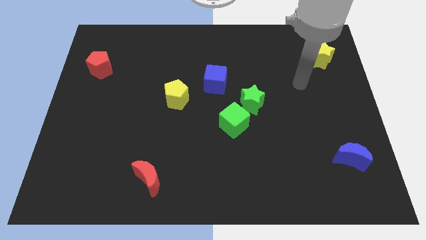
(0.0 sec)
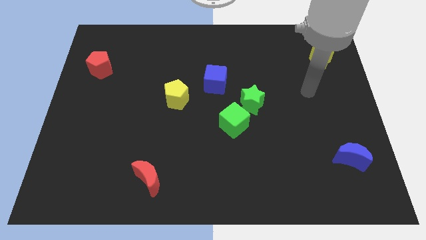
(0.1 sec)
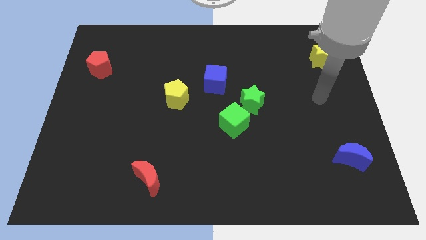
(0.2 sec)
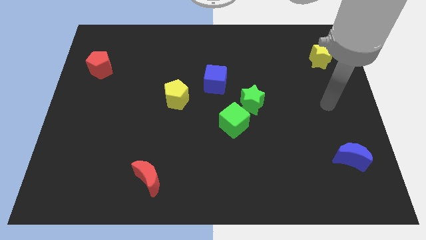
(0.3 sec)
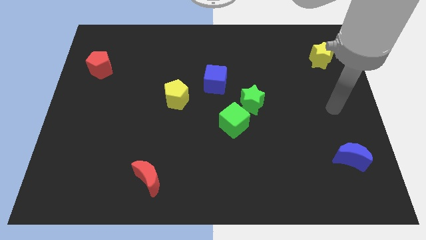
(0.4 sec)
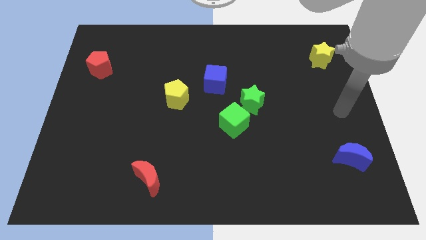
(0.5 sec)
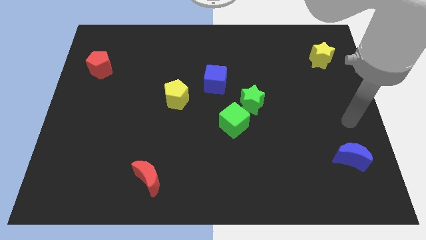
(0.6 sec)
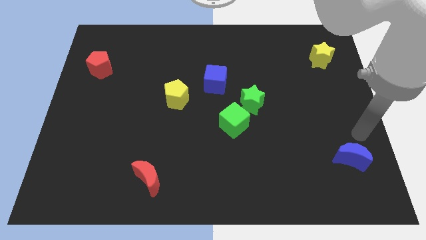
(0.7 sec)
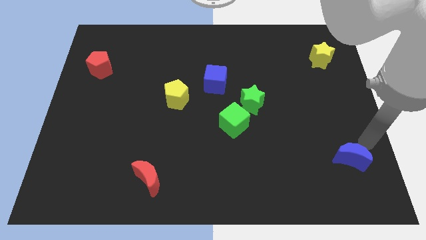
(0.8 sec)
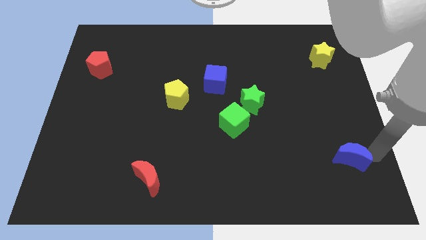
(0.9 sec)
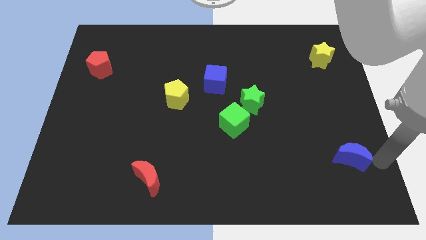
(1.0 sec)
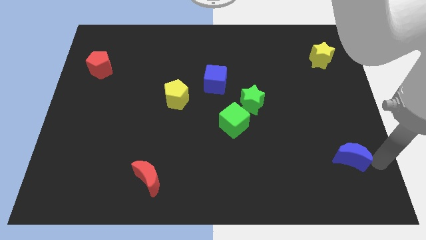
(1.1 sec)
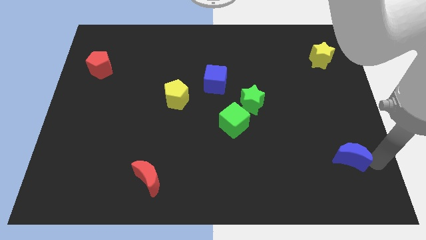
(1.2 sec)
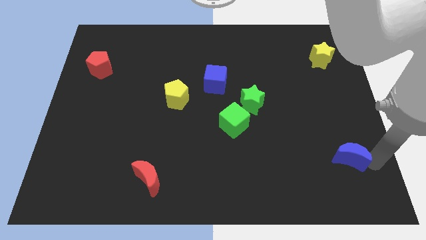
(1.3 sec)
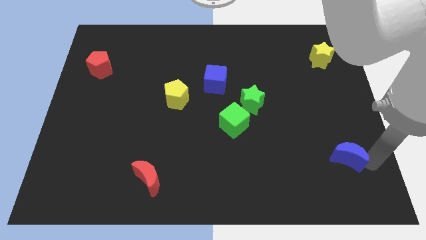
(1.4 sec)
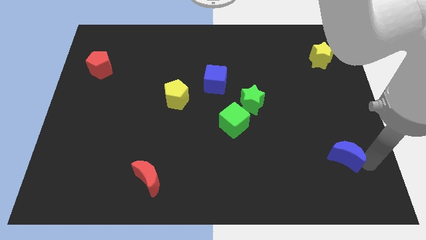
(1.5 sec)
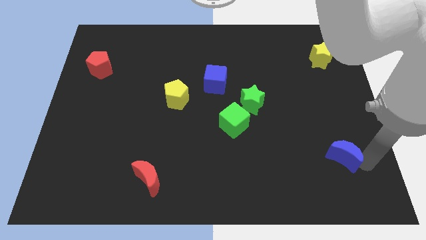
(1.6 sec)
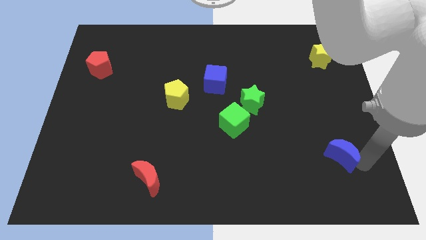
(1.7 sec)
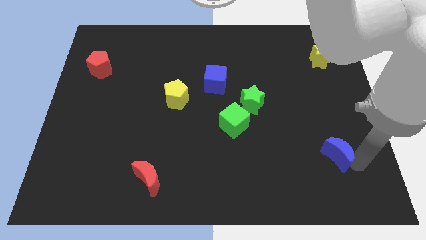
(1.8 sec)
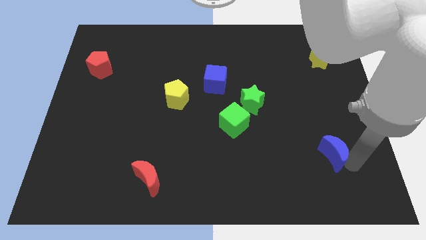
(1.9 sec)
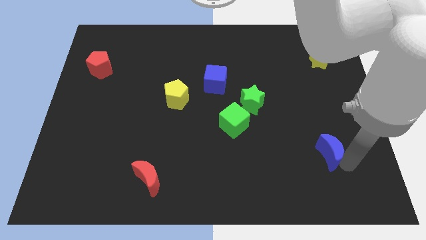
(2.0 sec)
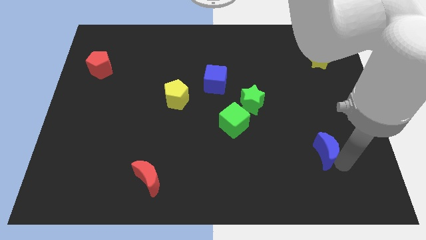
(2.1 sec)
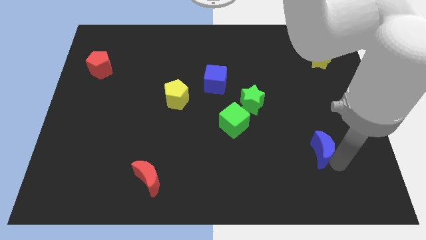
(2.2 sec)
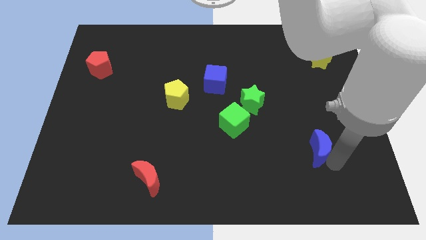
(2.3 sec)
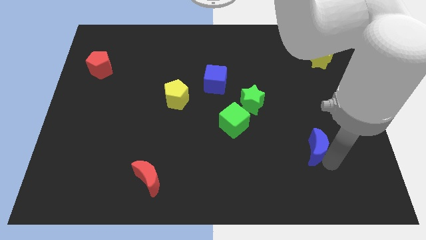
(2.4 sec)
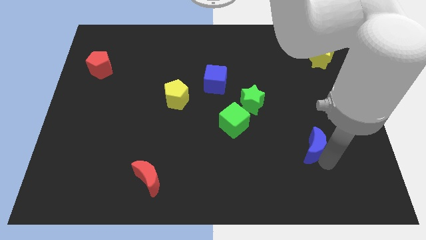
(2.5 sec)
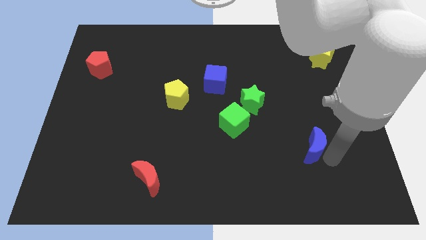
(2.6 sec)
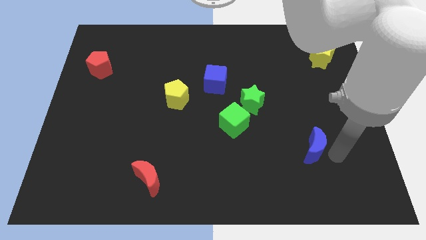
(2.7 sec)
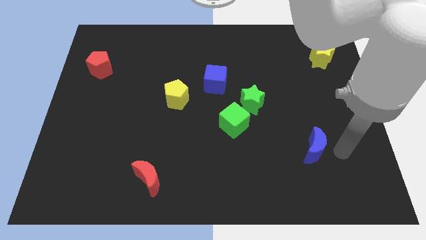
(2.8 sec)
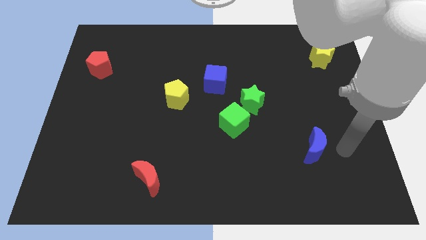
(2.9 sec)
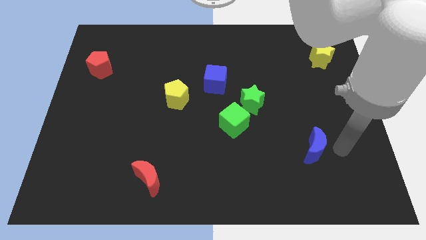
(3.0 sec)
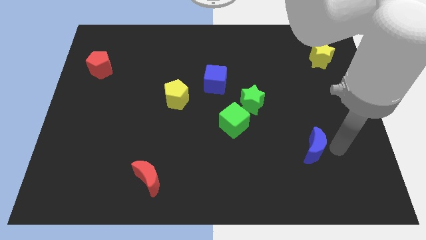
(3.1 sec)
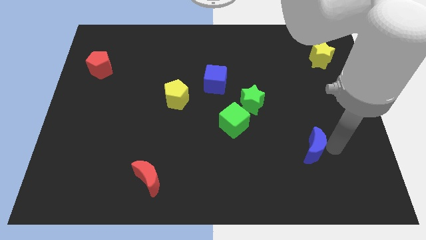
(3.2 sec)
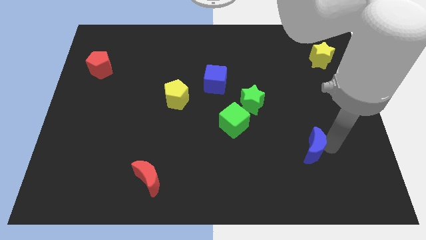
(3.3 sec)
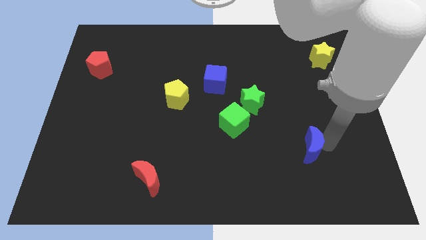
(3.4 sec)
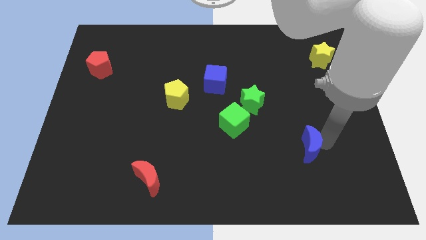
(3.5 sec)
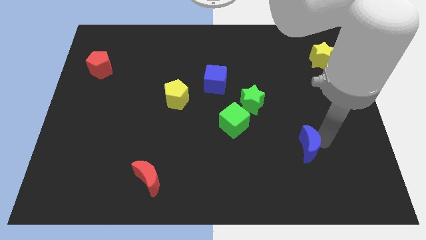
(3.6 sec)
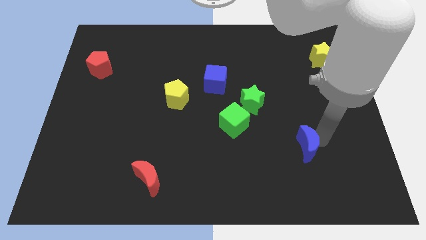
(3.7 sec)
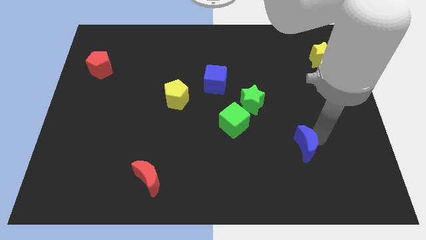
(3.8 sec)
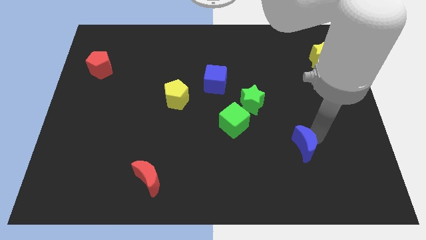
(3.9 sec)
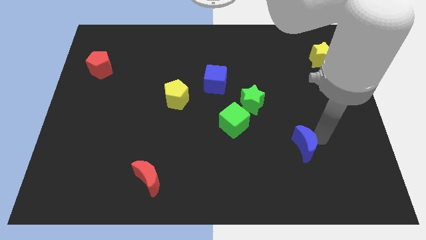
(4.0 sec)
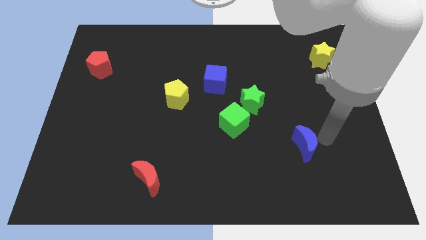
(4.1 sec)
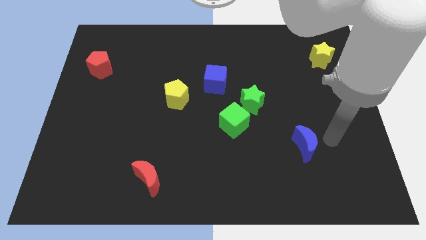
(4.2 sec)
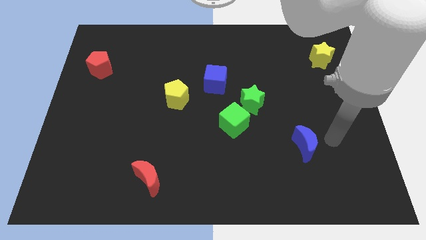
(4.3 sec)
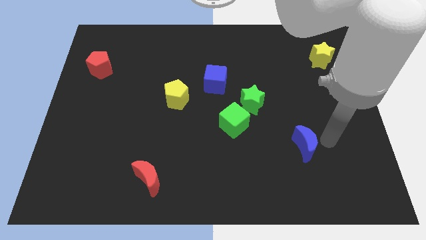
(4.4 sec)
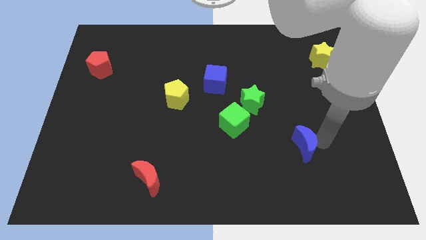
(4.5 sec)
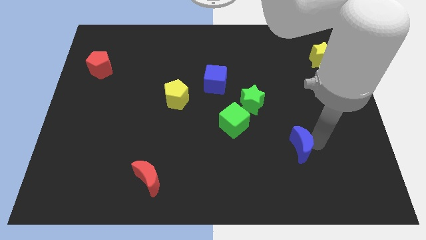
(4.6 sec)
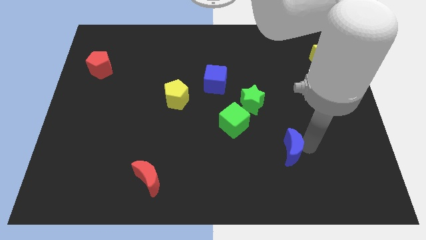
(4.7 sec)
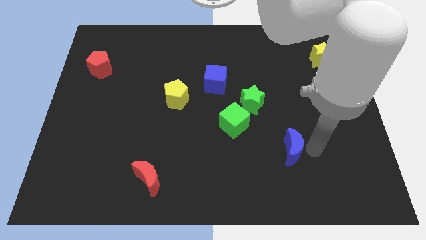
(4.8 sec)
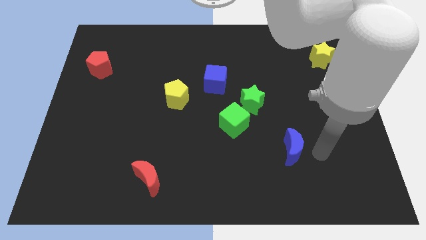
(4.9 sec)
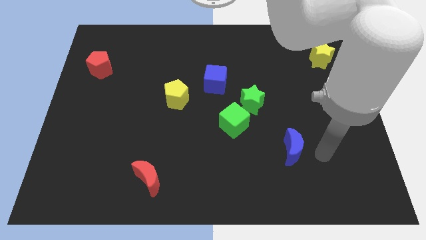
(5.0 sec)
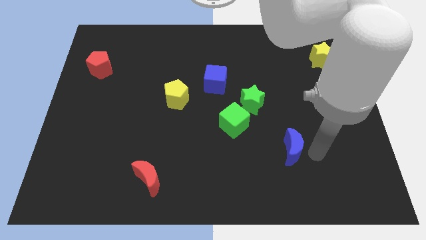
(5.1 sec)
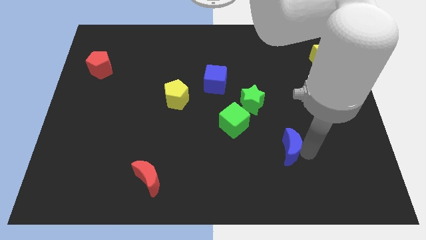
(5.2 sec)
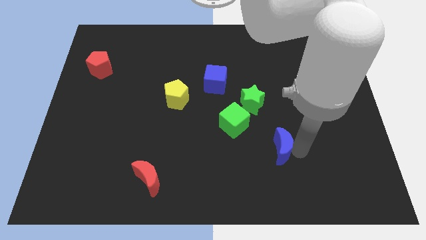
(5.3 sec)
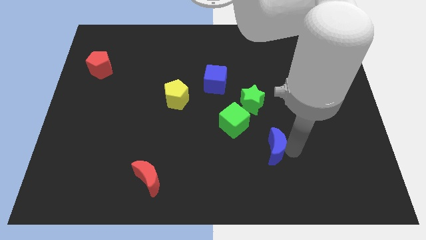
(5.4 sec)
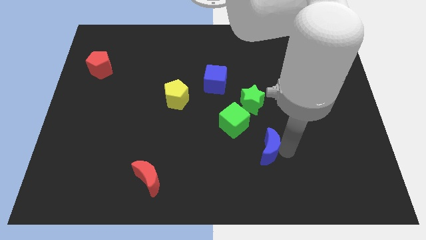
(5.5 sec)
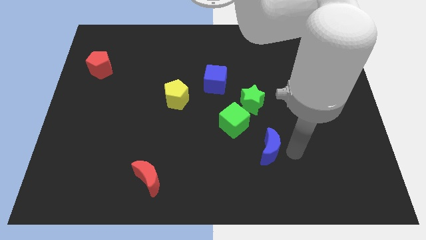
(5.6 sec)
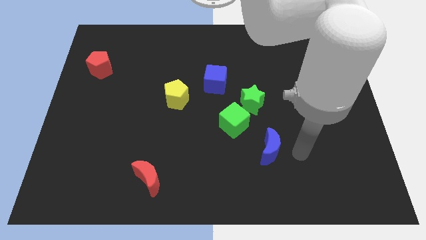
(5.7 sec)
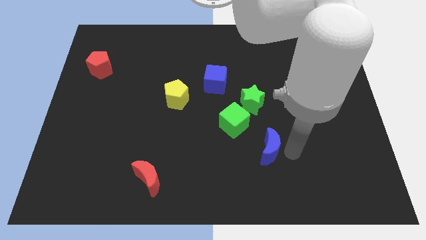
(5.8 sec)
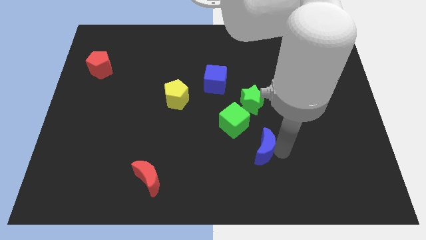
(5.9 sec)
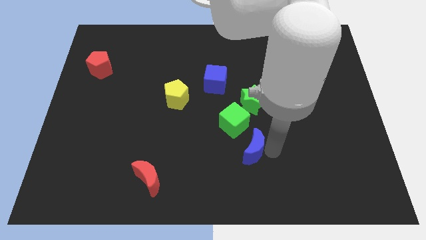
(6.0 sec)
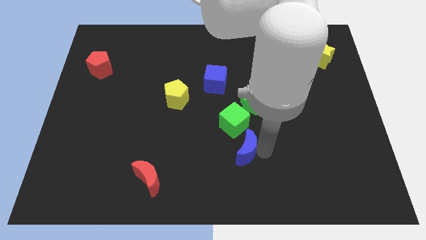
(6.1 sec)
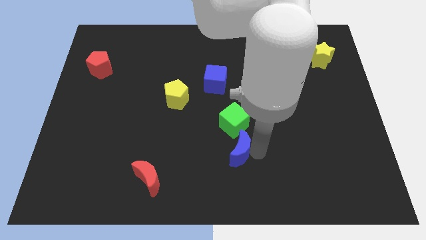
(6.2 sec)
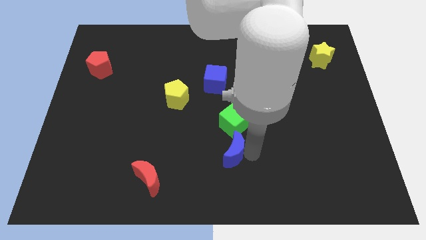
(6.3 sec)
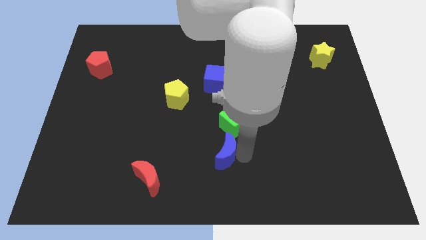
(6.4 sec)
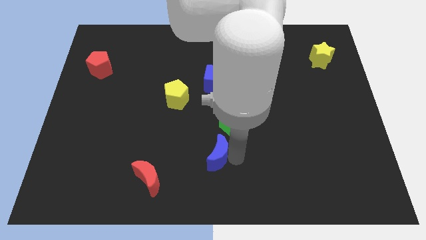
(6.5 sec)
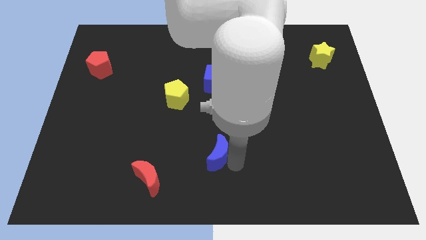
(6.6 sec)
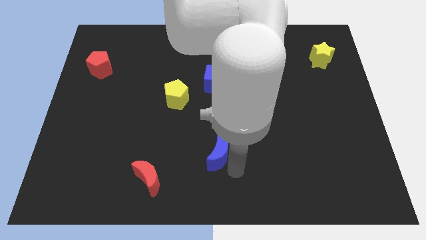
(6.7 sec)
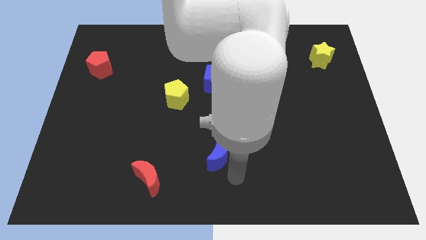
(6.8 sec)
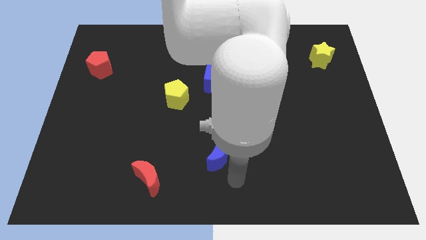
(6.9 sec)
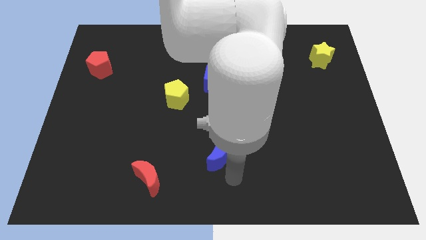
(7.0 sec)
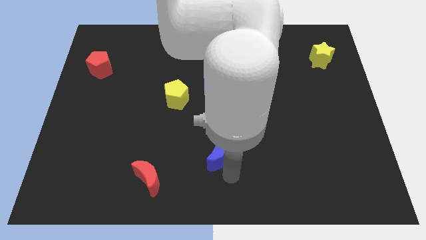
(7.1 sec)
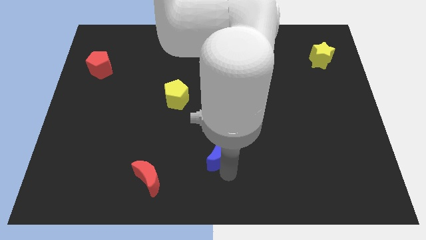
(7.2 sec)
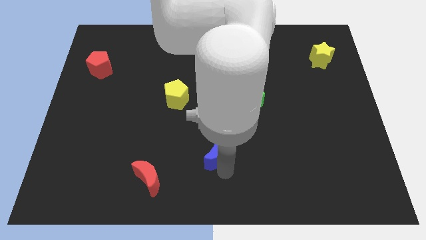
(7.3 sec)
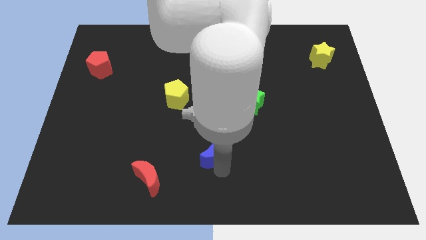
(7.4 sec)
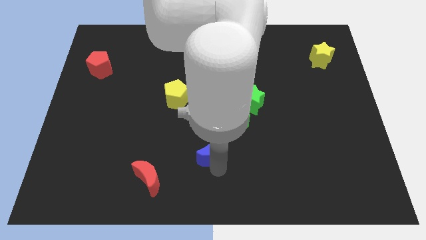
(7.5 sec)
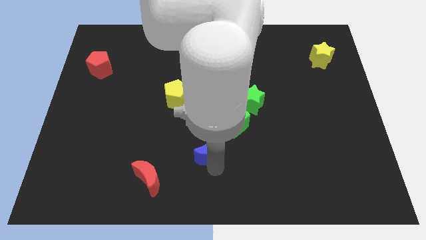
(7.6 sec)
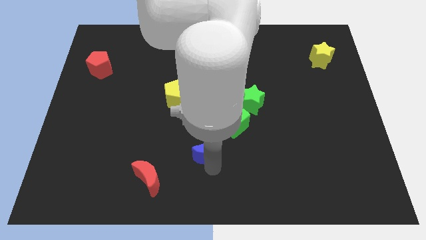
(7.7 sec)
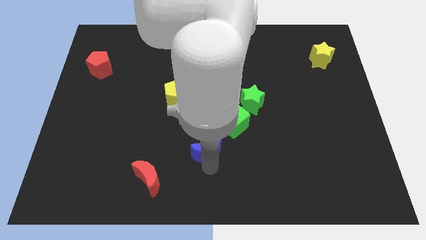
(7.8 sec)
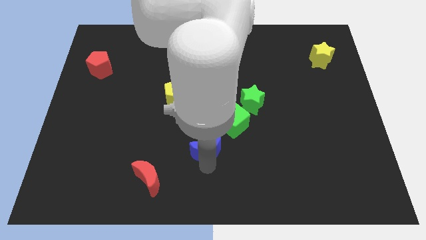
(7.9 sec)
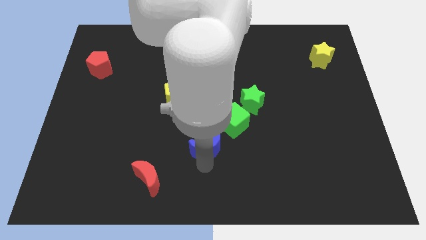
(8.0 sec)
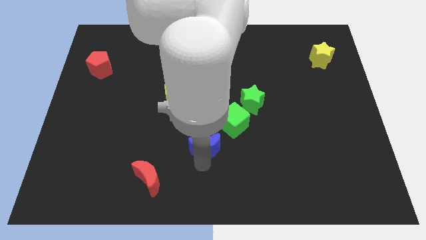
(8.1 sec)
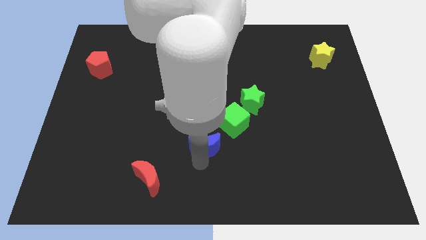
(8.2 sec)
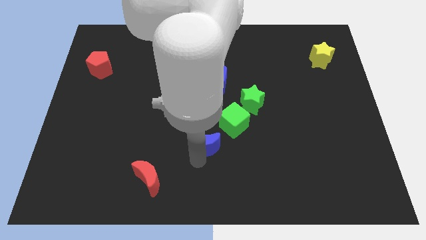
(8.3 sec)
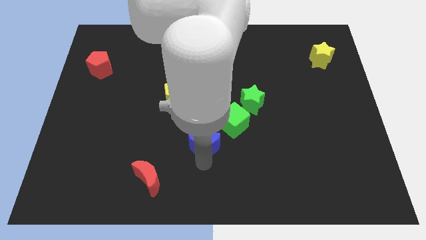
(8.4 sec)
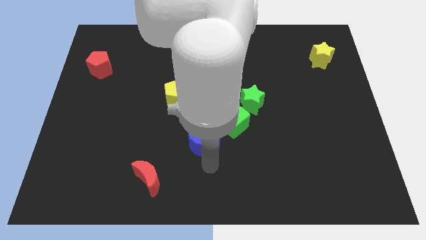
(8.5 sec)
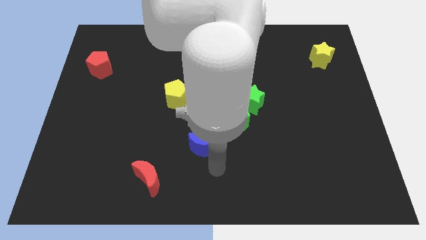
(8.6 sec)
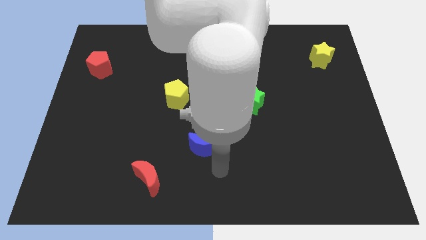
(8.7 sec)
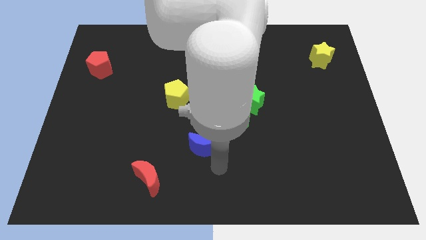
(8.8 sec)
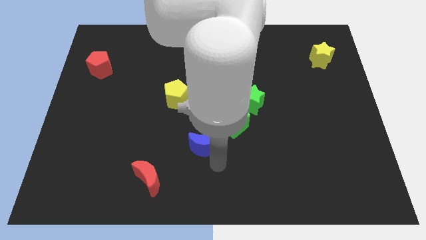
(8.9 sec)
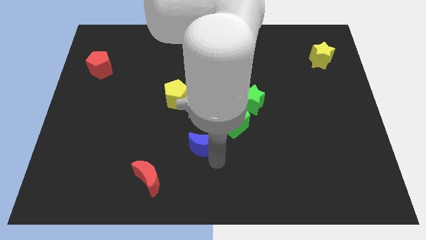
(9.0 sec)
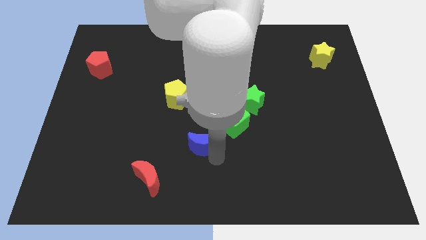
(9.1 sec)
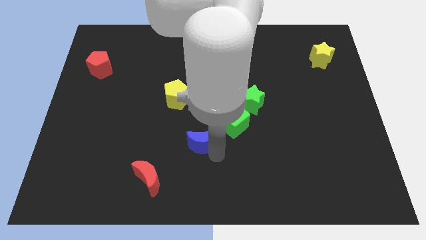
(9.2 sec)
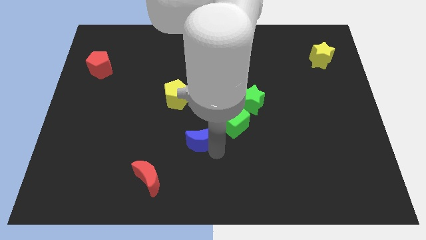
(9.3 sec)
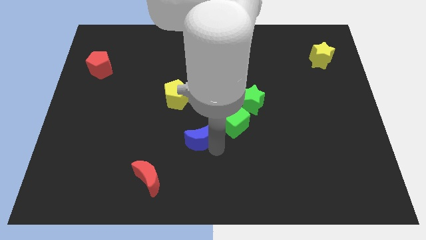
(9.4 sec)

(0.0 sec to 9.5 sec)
put the blue moon just left of the green cube
